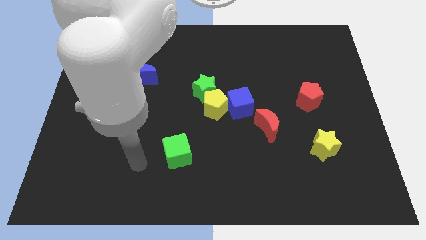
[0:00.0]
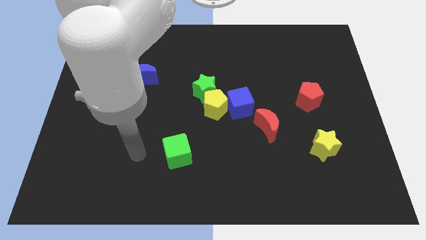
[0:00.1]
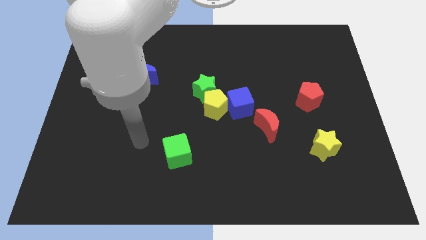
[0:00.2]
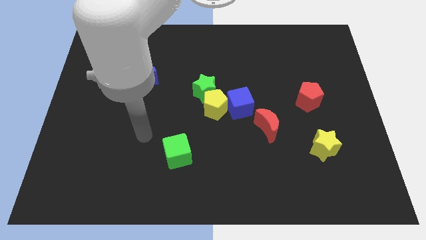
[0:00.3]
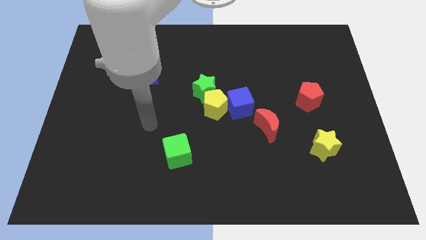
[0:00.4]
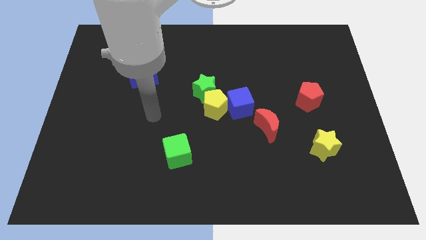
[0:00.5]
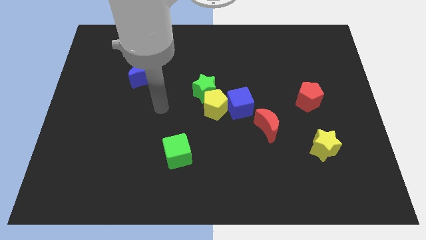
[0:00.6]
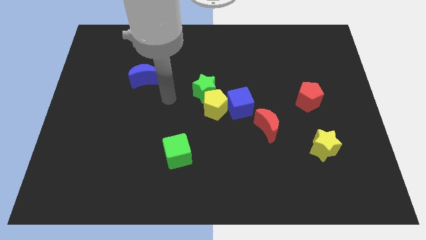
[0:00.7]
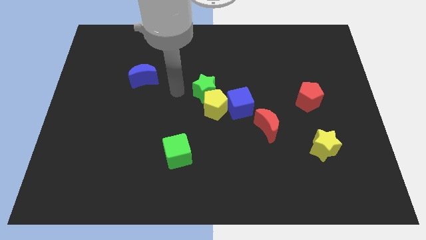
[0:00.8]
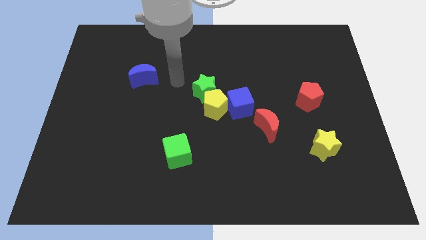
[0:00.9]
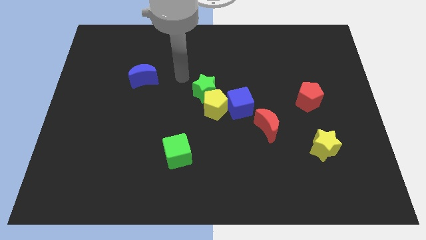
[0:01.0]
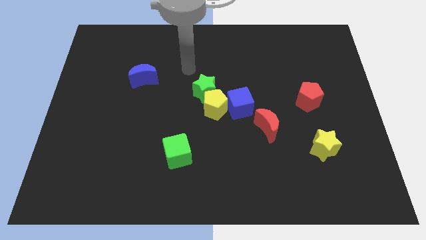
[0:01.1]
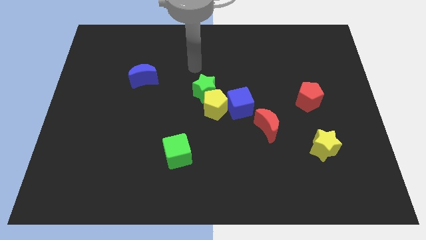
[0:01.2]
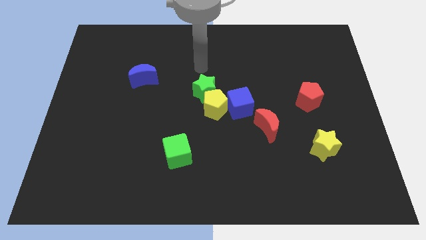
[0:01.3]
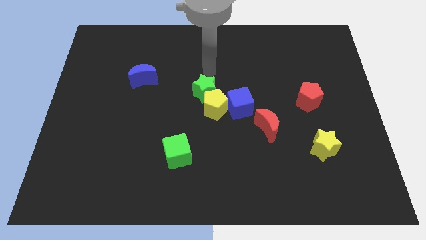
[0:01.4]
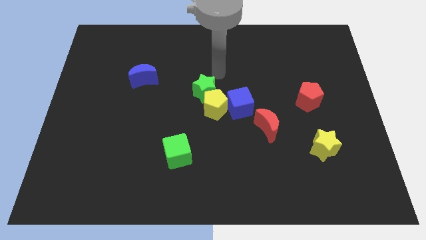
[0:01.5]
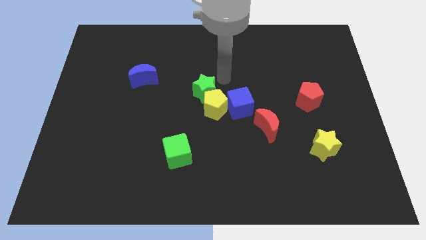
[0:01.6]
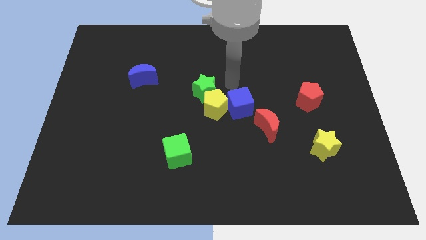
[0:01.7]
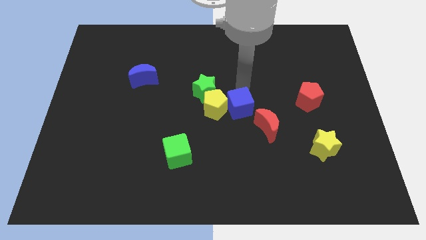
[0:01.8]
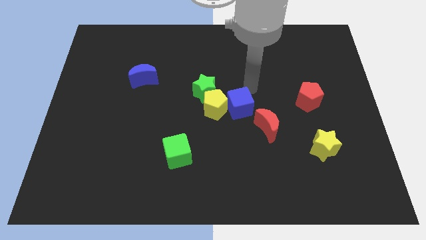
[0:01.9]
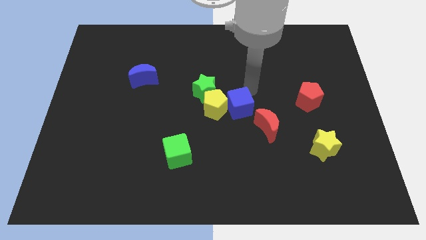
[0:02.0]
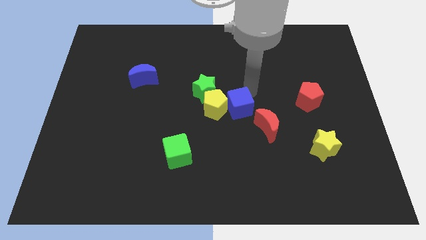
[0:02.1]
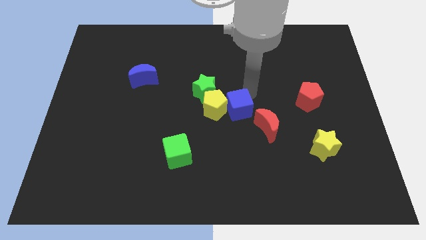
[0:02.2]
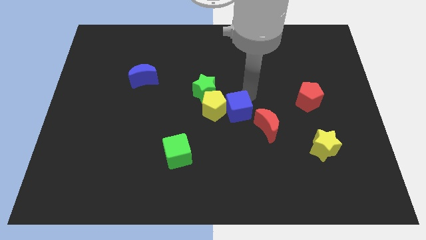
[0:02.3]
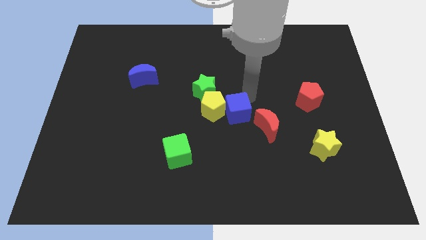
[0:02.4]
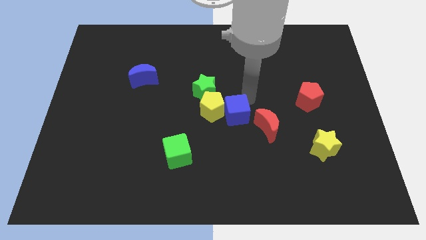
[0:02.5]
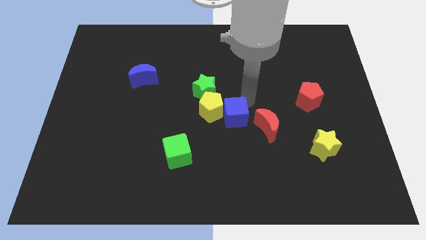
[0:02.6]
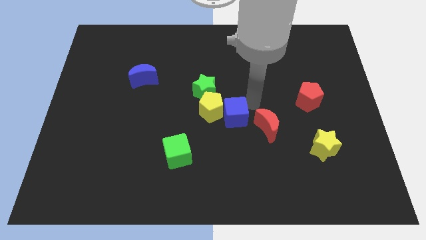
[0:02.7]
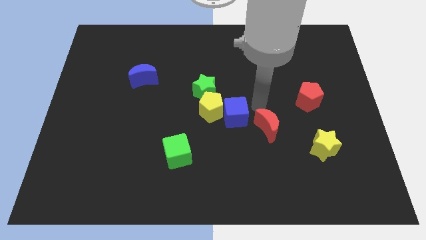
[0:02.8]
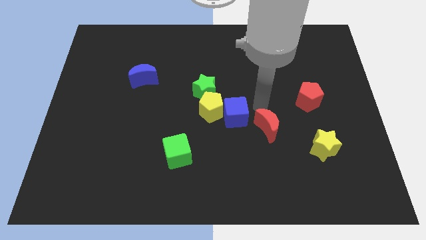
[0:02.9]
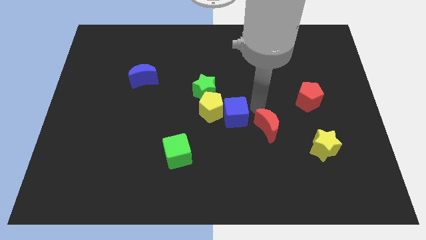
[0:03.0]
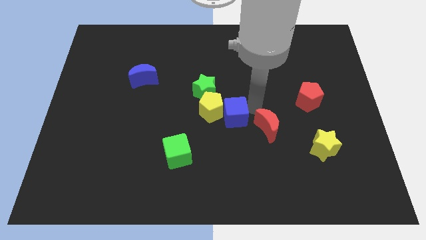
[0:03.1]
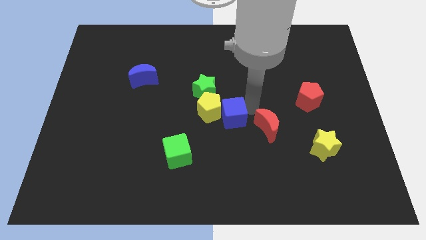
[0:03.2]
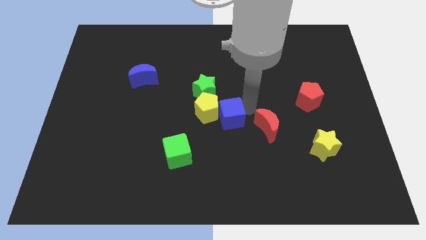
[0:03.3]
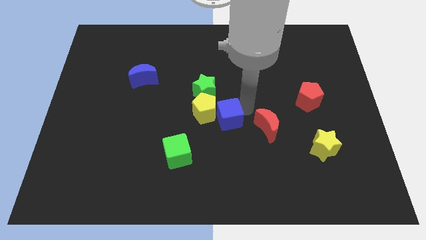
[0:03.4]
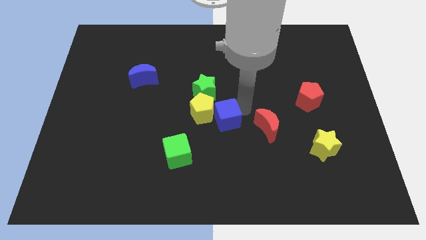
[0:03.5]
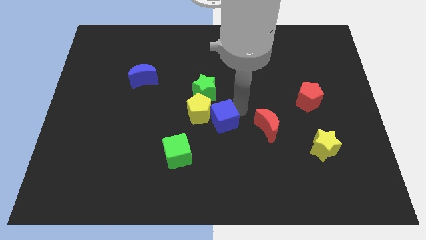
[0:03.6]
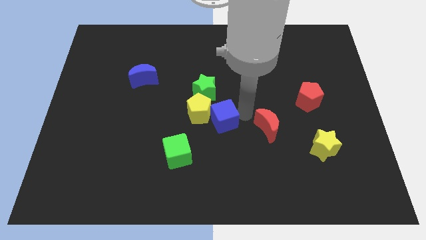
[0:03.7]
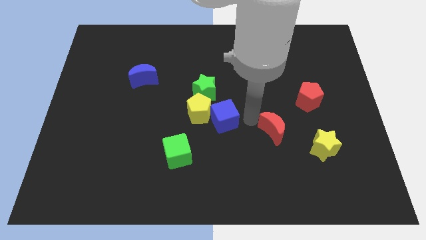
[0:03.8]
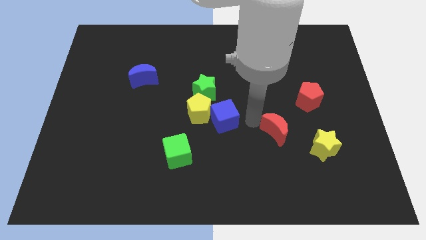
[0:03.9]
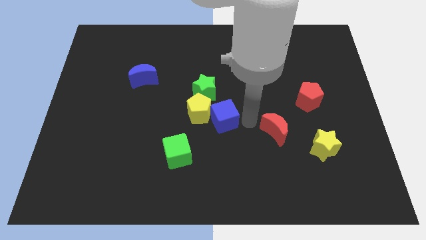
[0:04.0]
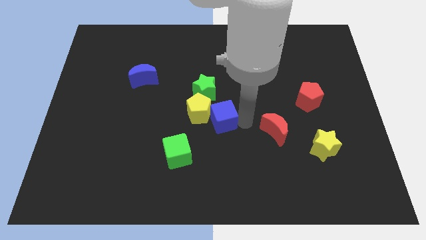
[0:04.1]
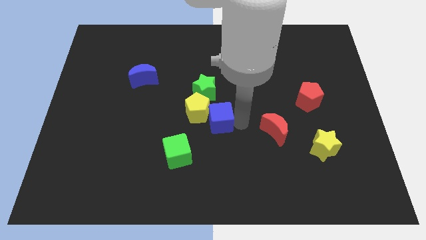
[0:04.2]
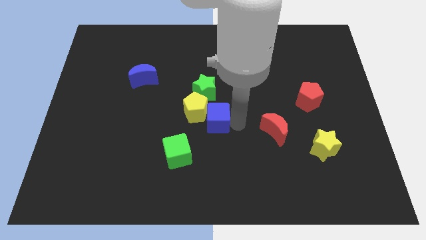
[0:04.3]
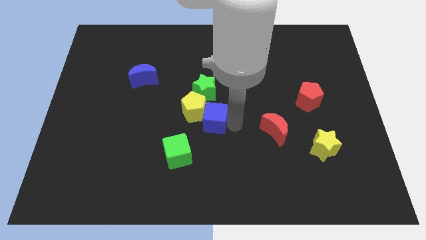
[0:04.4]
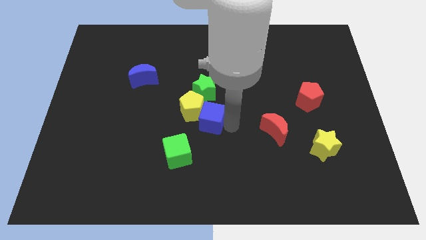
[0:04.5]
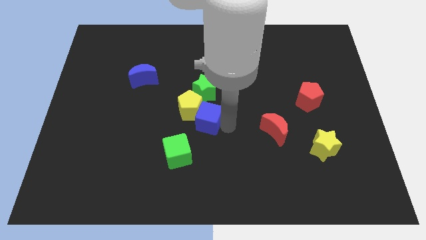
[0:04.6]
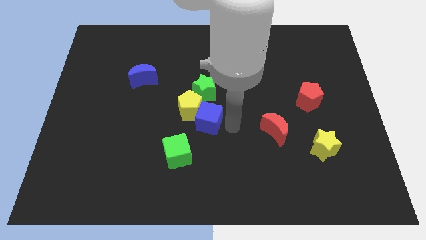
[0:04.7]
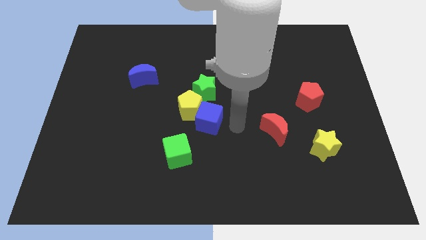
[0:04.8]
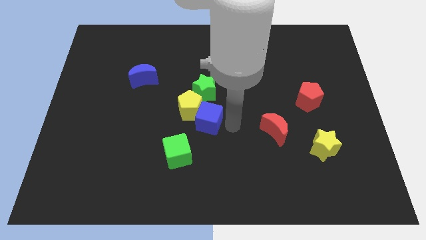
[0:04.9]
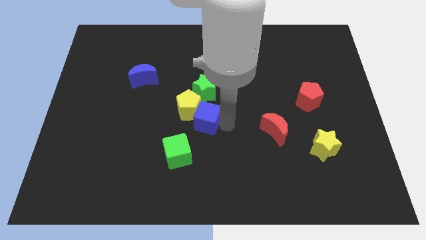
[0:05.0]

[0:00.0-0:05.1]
slide the blue cube a little bit to the left

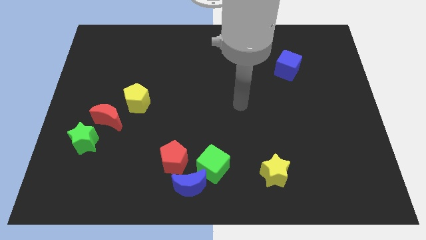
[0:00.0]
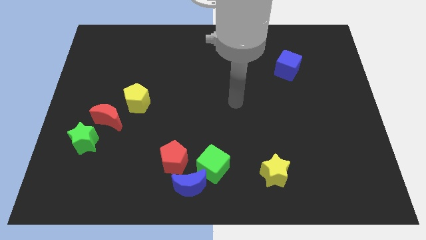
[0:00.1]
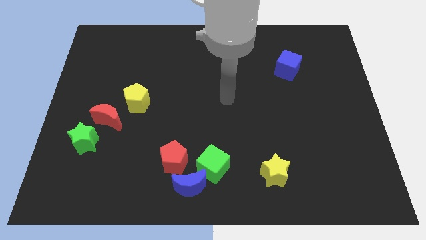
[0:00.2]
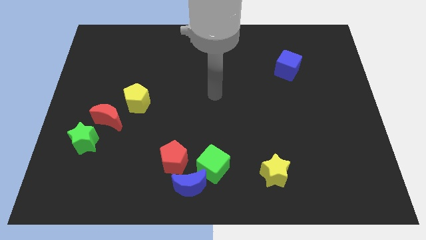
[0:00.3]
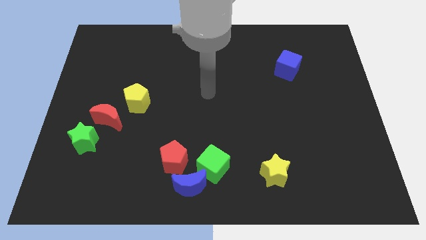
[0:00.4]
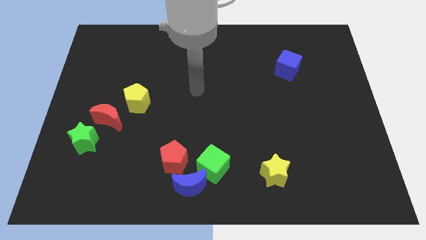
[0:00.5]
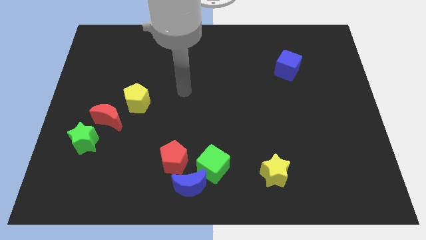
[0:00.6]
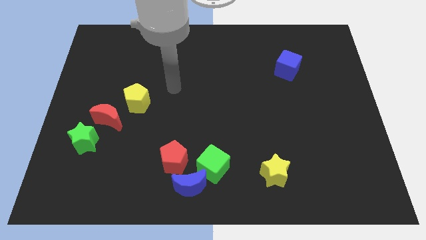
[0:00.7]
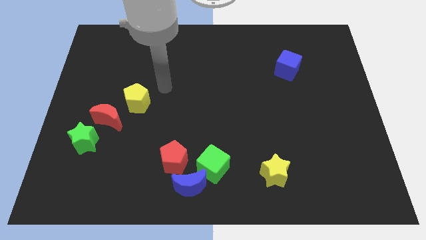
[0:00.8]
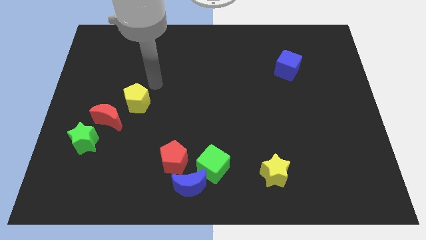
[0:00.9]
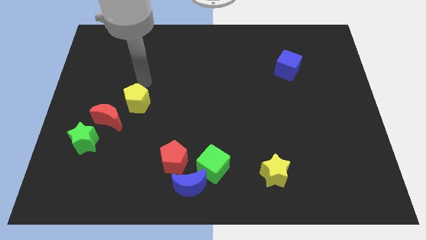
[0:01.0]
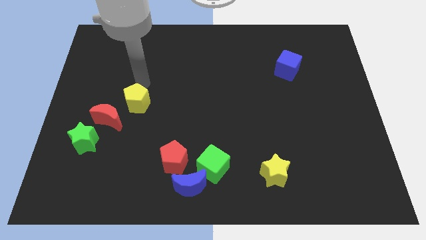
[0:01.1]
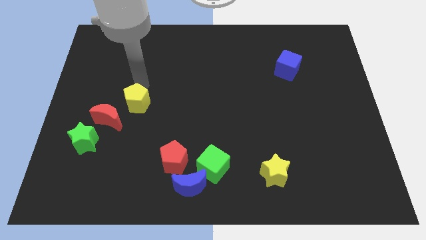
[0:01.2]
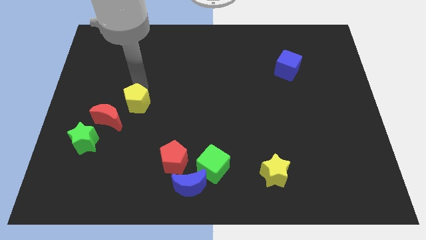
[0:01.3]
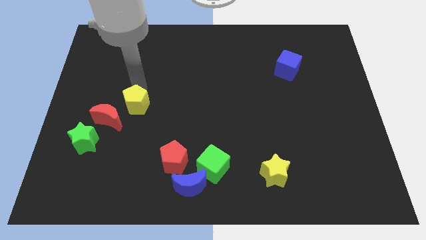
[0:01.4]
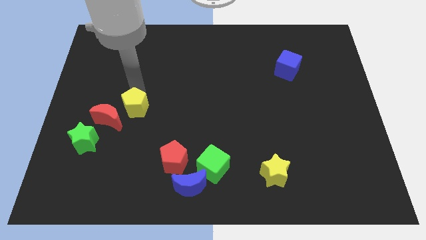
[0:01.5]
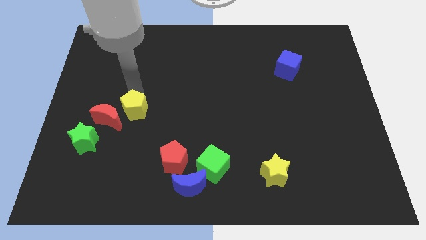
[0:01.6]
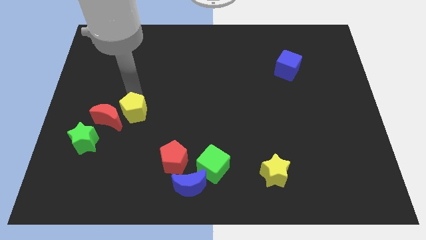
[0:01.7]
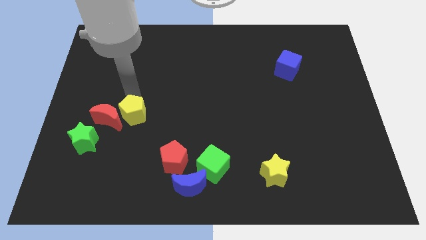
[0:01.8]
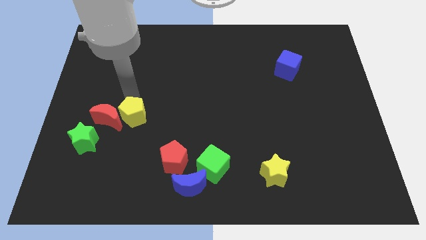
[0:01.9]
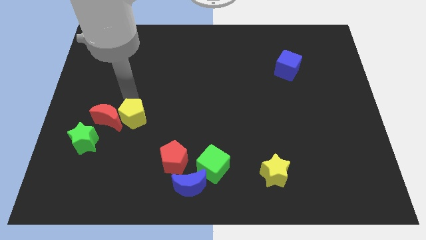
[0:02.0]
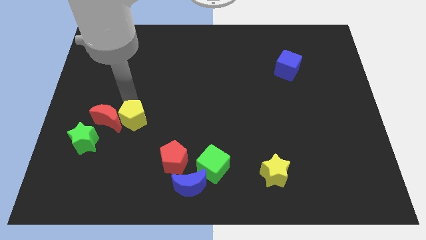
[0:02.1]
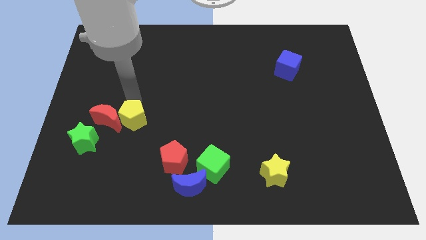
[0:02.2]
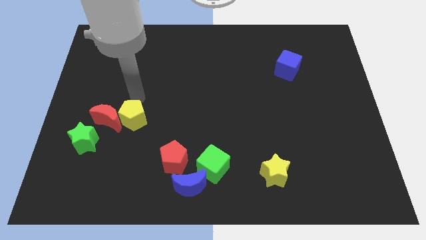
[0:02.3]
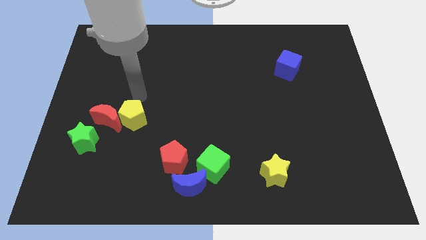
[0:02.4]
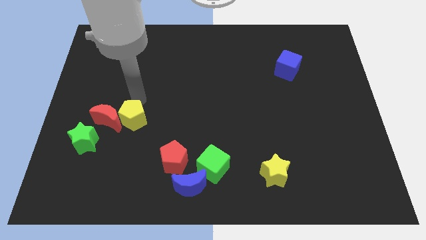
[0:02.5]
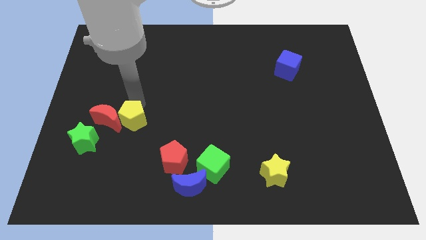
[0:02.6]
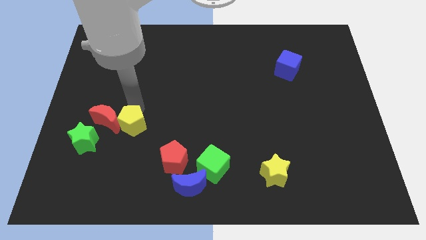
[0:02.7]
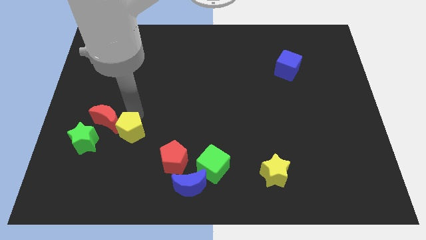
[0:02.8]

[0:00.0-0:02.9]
slide the yellow pentagon downwards a little bit
